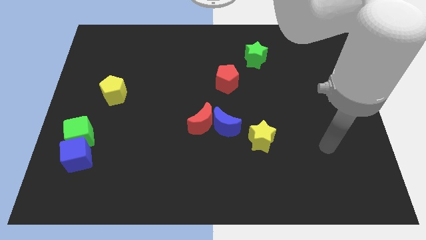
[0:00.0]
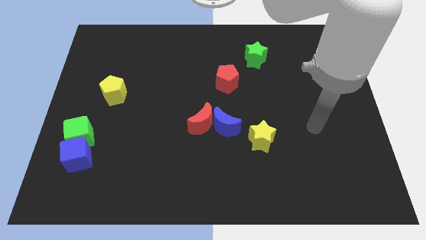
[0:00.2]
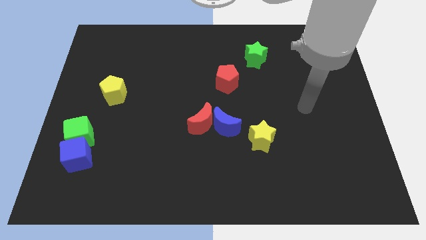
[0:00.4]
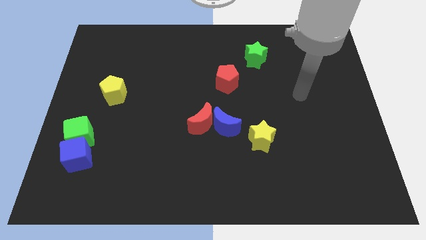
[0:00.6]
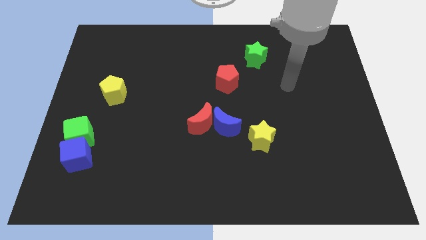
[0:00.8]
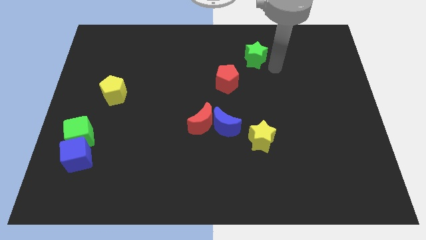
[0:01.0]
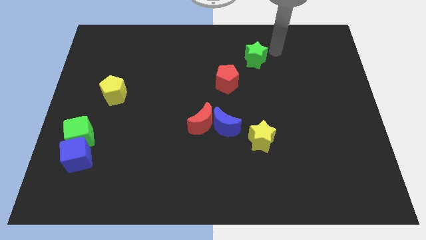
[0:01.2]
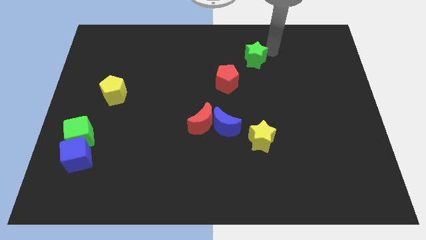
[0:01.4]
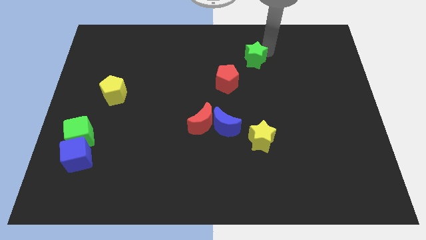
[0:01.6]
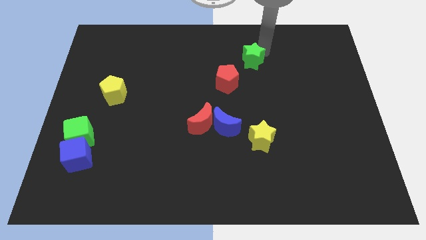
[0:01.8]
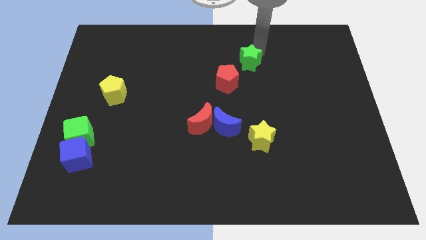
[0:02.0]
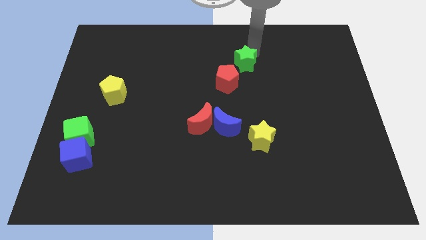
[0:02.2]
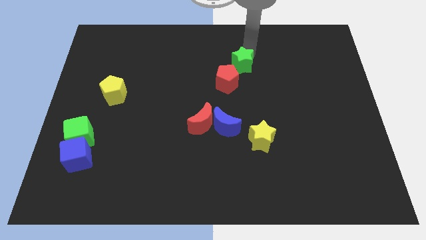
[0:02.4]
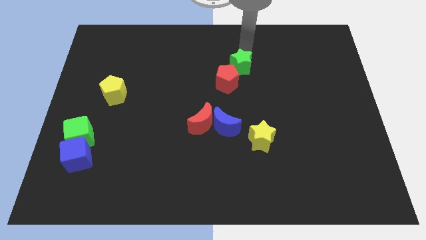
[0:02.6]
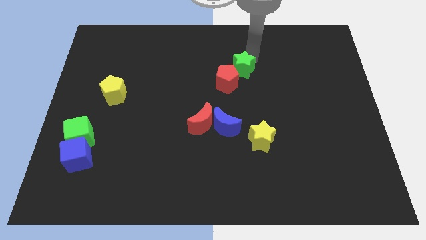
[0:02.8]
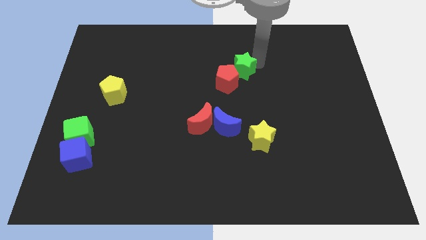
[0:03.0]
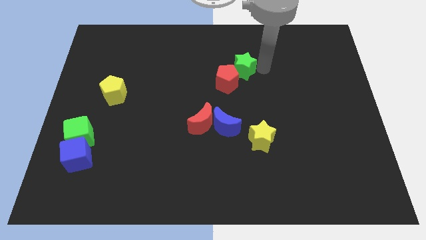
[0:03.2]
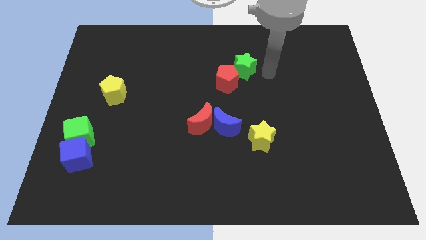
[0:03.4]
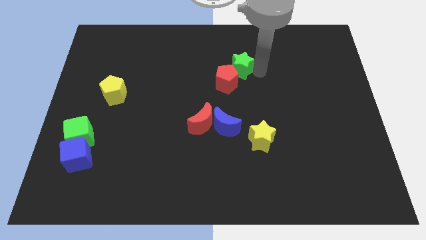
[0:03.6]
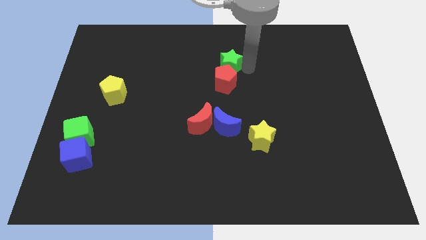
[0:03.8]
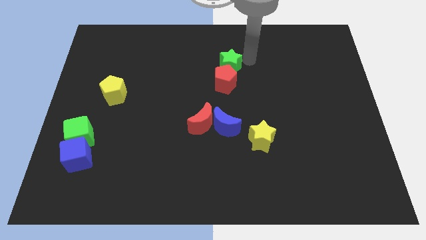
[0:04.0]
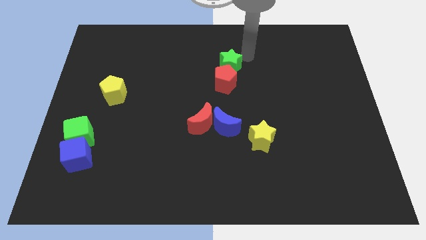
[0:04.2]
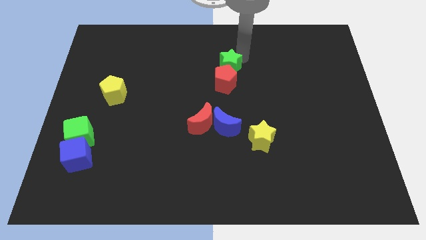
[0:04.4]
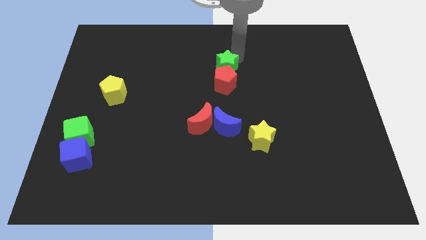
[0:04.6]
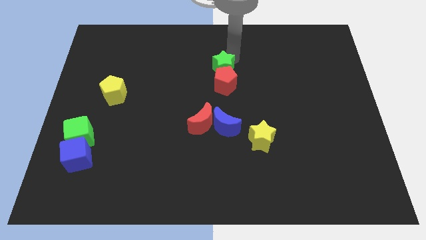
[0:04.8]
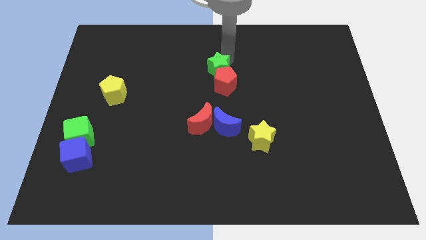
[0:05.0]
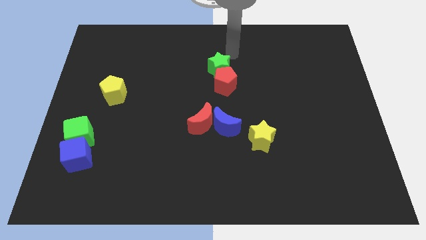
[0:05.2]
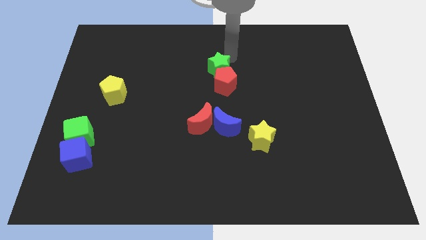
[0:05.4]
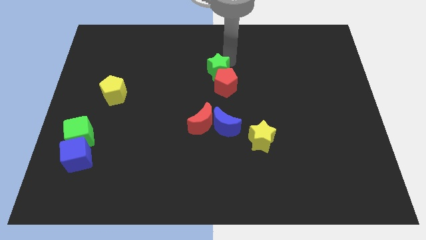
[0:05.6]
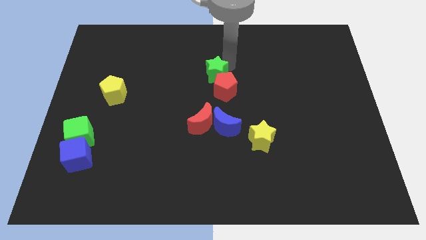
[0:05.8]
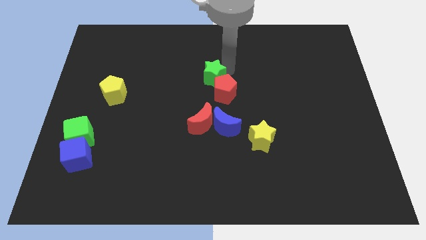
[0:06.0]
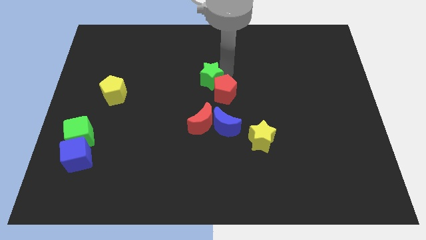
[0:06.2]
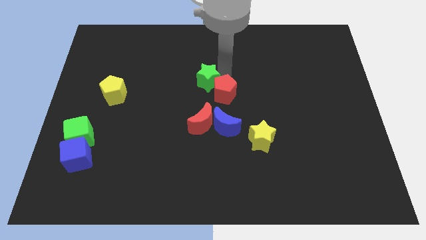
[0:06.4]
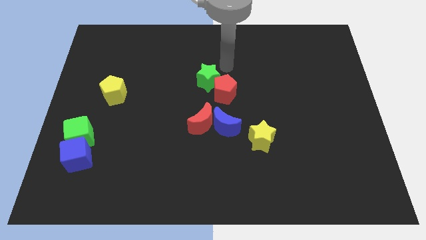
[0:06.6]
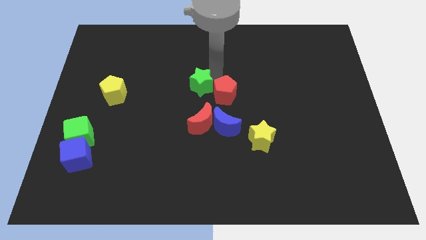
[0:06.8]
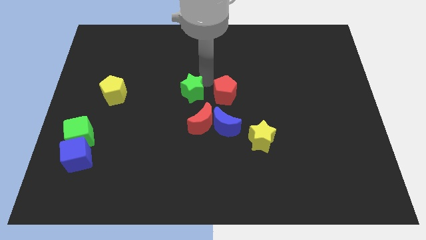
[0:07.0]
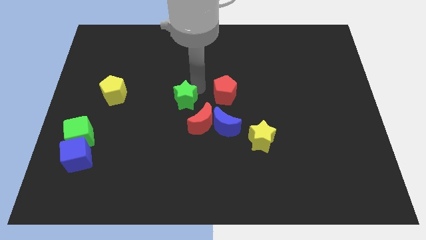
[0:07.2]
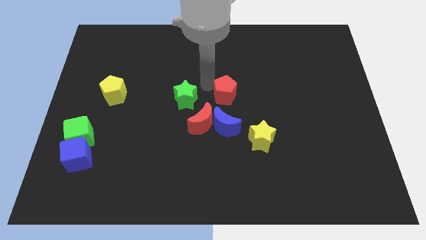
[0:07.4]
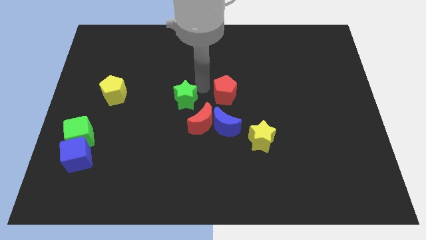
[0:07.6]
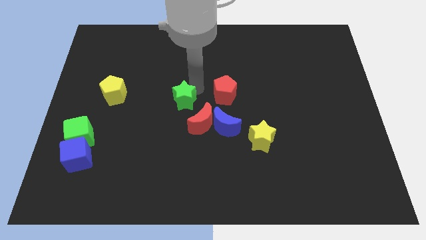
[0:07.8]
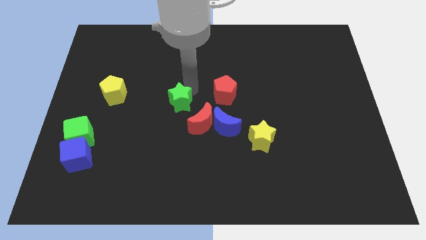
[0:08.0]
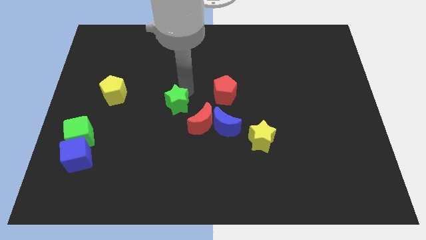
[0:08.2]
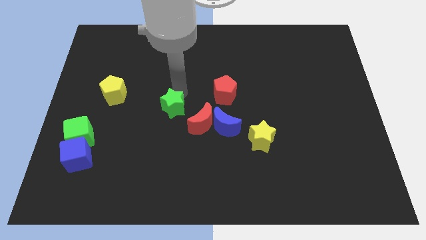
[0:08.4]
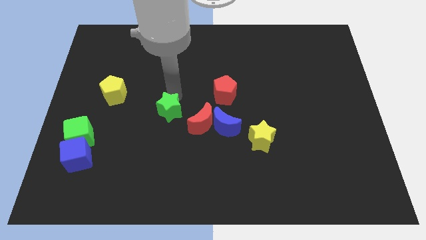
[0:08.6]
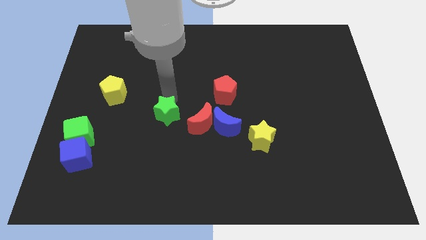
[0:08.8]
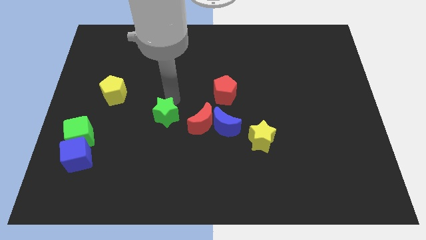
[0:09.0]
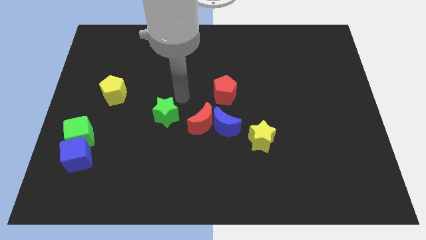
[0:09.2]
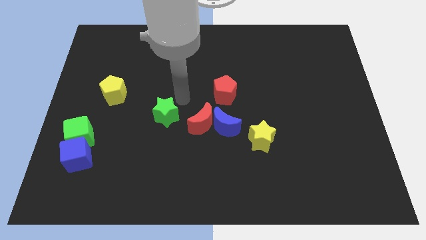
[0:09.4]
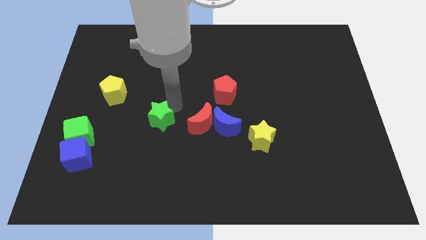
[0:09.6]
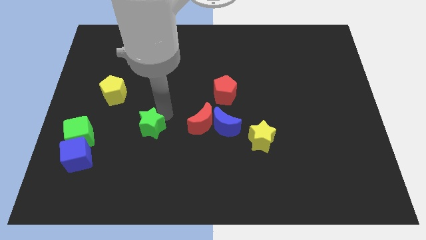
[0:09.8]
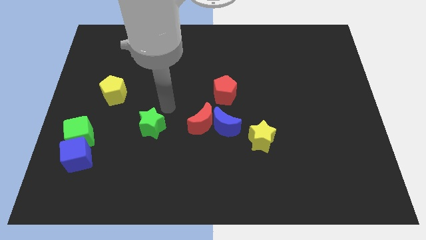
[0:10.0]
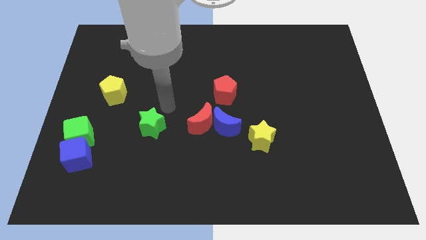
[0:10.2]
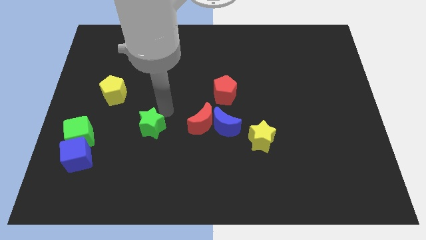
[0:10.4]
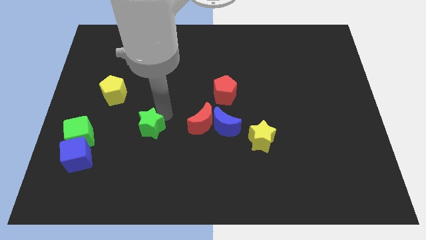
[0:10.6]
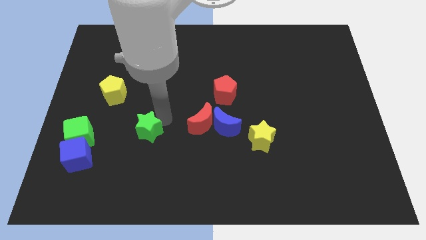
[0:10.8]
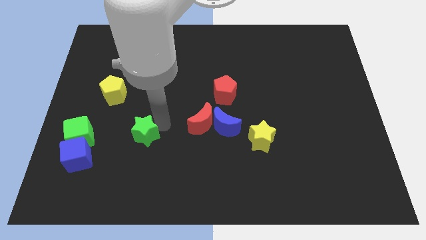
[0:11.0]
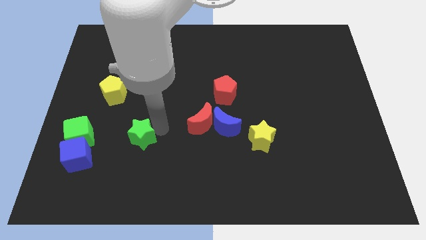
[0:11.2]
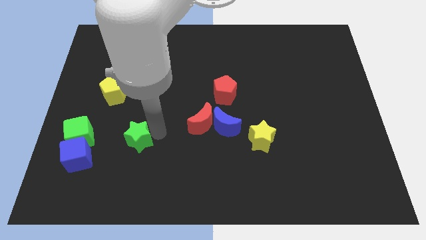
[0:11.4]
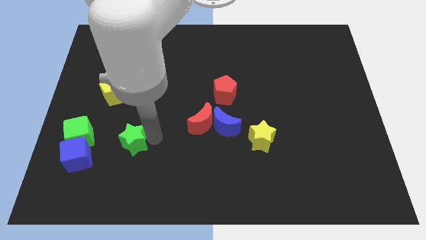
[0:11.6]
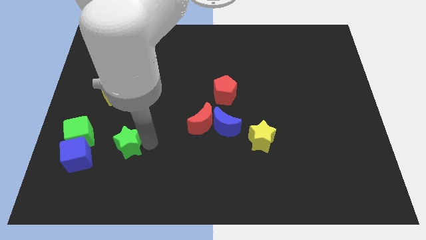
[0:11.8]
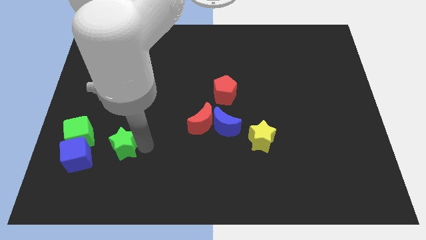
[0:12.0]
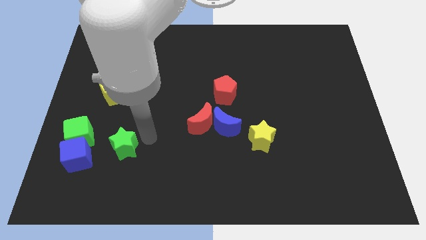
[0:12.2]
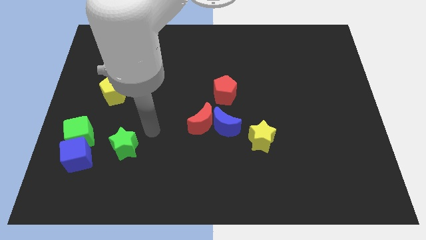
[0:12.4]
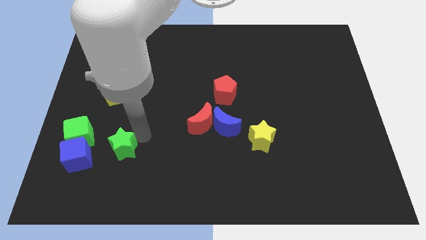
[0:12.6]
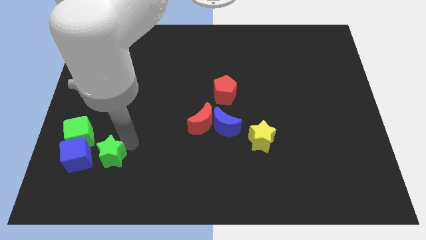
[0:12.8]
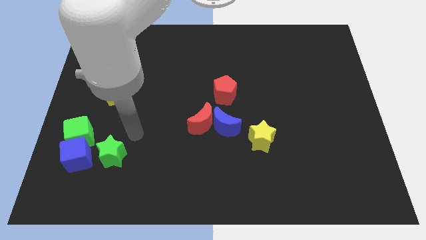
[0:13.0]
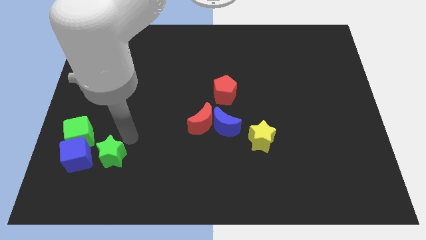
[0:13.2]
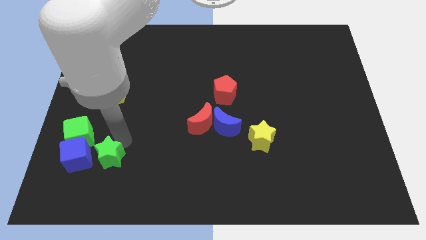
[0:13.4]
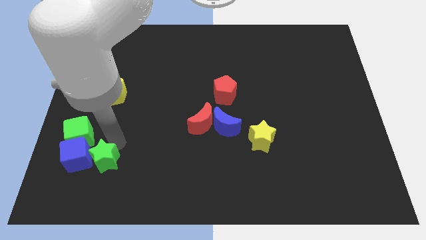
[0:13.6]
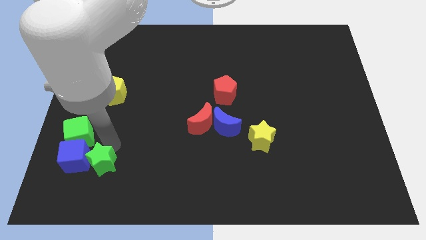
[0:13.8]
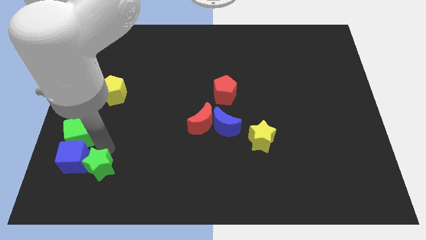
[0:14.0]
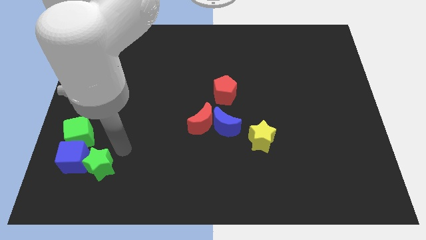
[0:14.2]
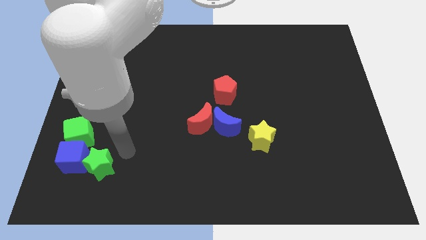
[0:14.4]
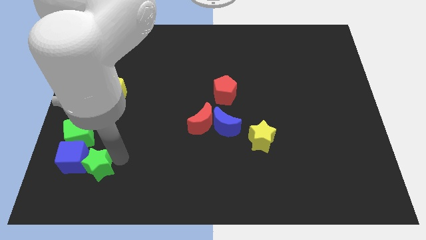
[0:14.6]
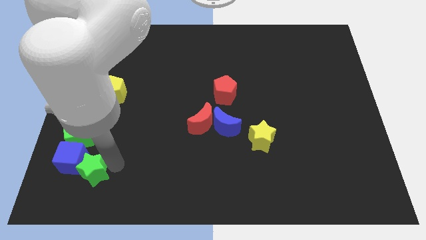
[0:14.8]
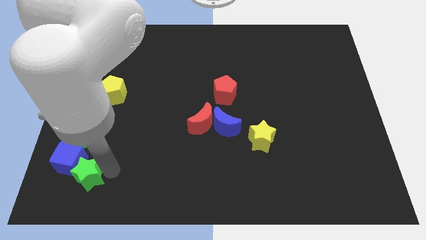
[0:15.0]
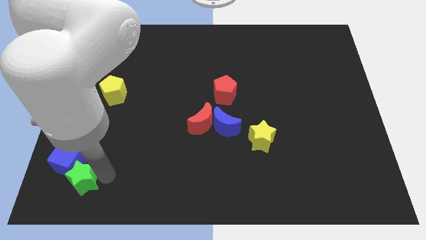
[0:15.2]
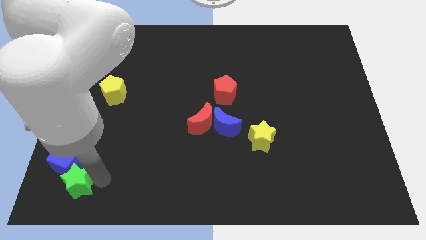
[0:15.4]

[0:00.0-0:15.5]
slide the green star to the bottom left corner
